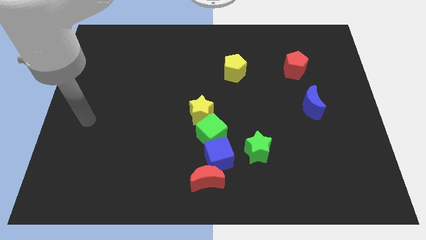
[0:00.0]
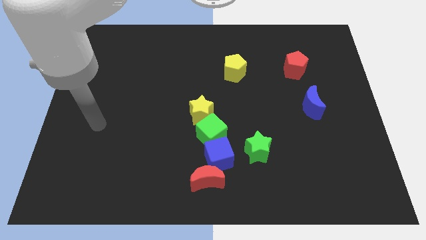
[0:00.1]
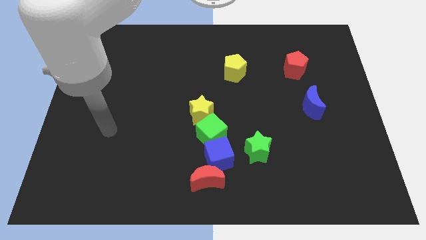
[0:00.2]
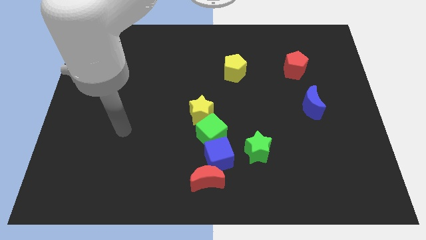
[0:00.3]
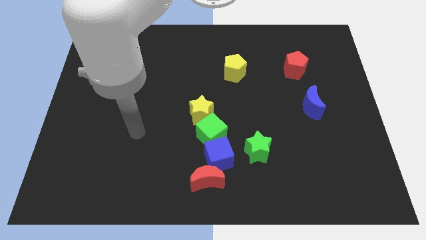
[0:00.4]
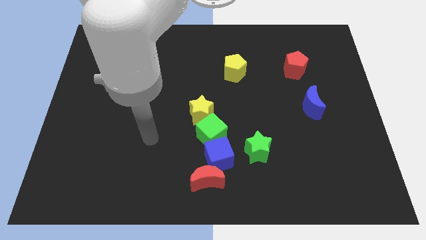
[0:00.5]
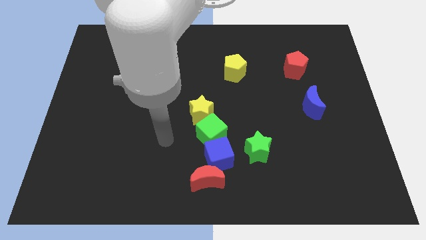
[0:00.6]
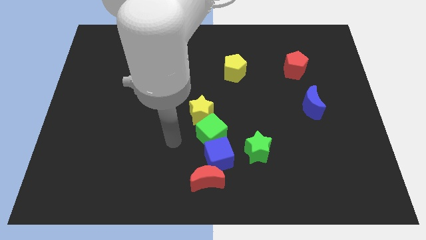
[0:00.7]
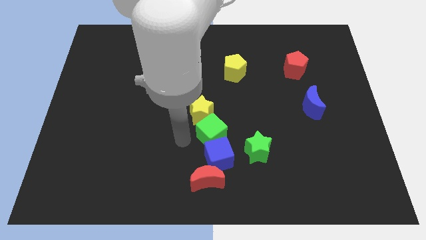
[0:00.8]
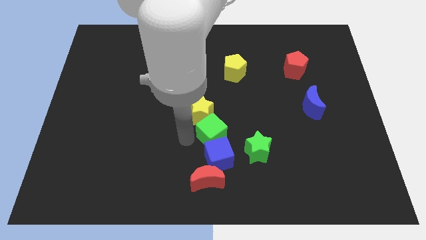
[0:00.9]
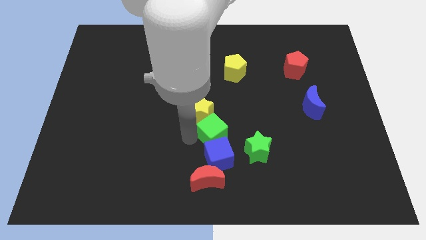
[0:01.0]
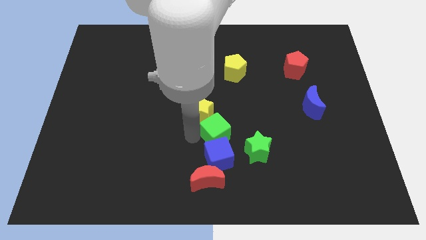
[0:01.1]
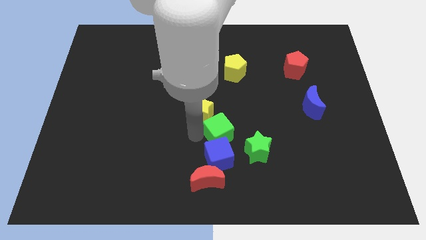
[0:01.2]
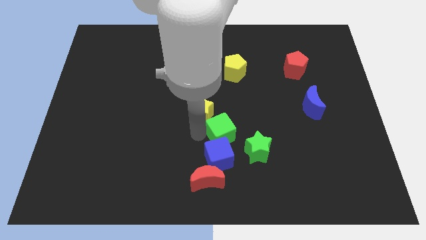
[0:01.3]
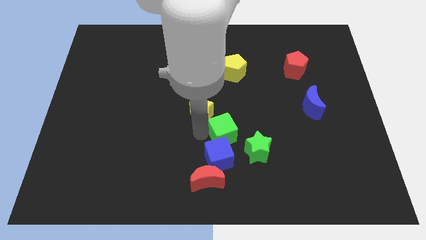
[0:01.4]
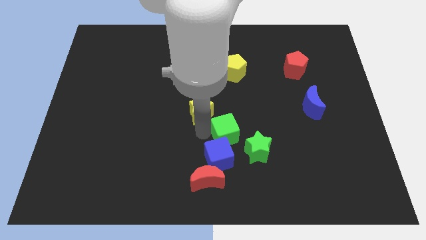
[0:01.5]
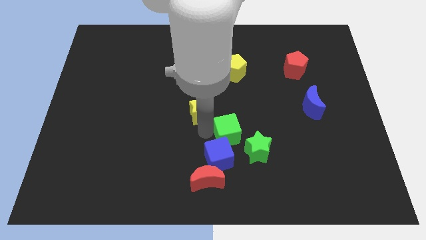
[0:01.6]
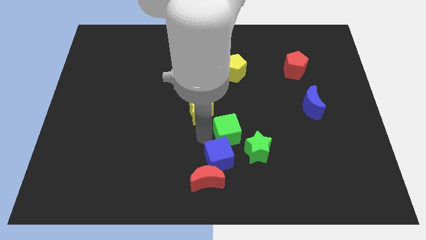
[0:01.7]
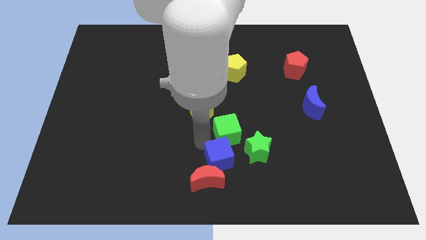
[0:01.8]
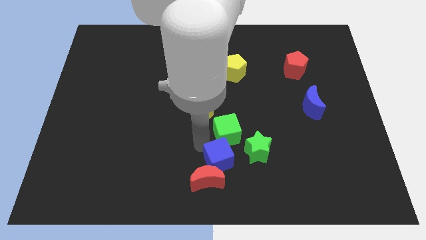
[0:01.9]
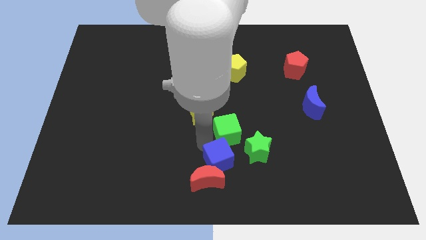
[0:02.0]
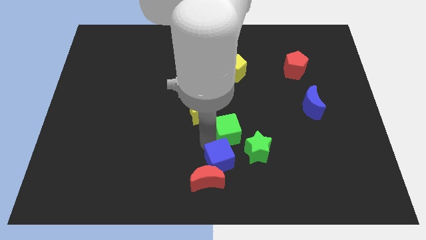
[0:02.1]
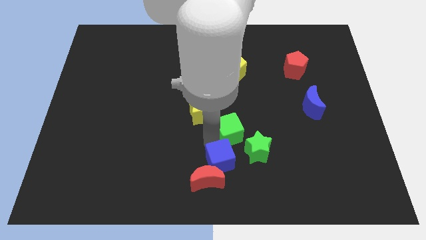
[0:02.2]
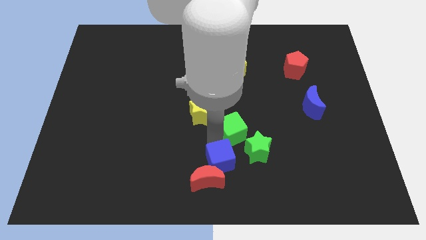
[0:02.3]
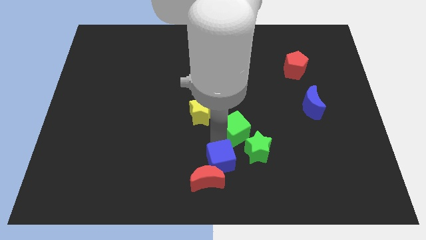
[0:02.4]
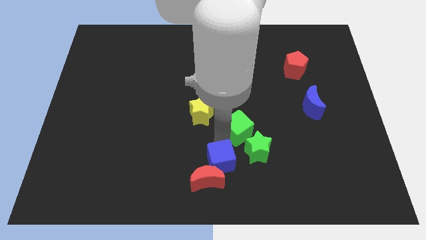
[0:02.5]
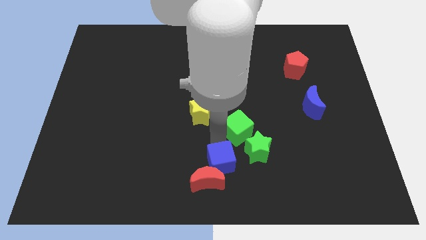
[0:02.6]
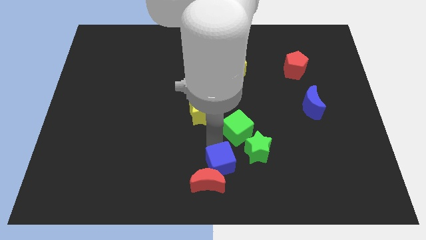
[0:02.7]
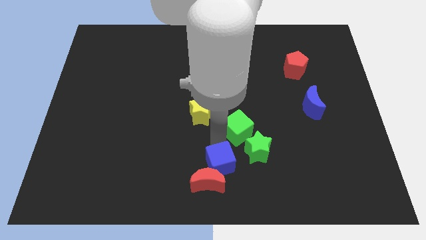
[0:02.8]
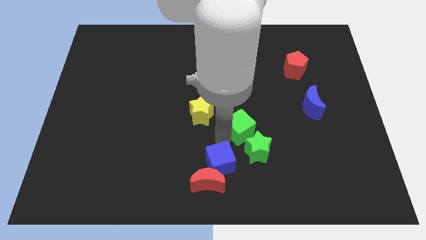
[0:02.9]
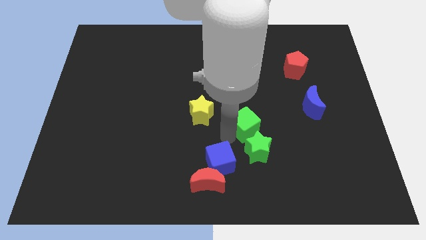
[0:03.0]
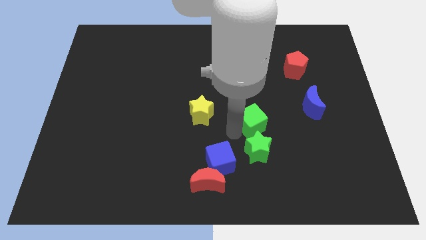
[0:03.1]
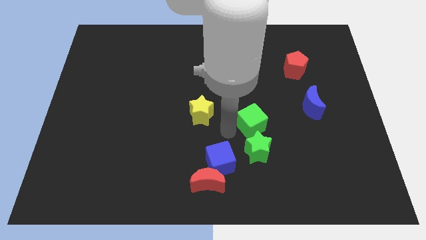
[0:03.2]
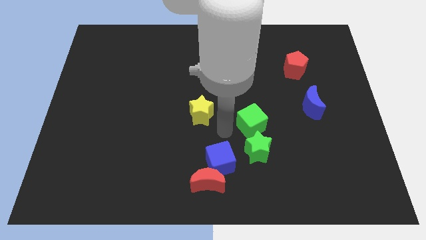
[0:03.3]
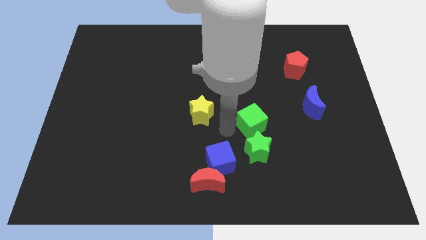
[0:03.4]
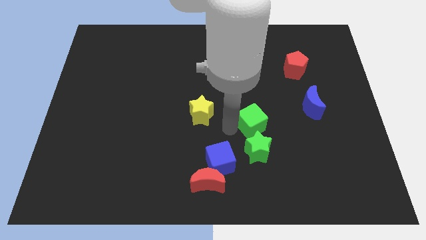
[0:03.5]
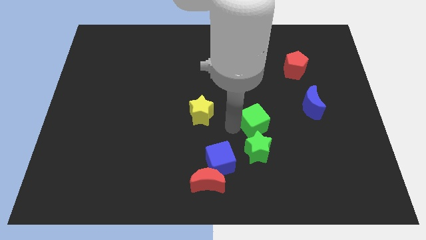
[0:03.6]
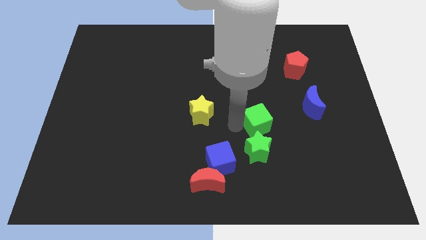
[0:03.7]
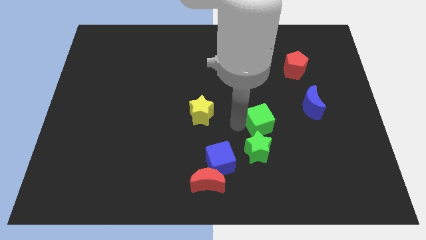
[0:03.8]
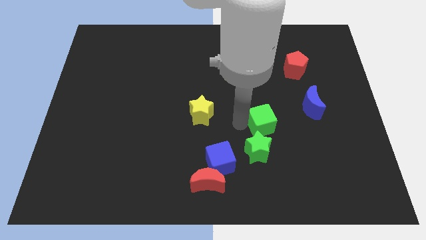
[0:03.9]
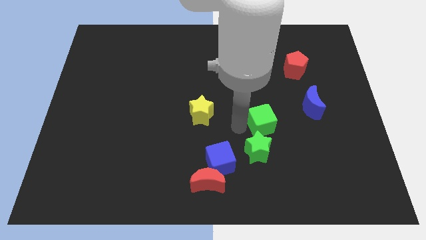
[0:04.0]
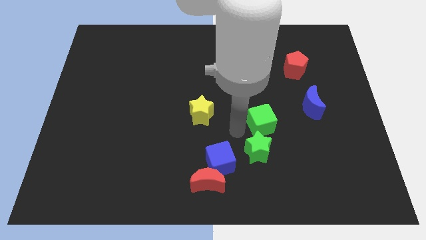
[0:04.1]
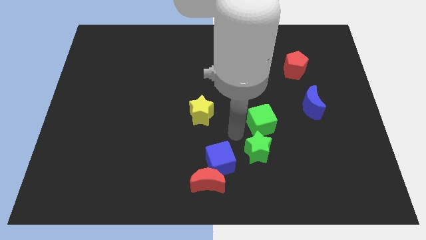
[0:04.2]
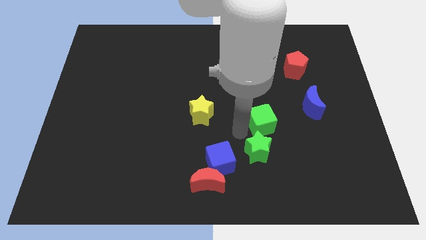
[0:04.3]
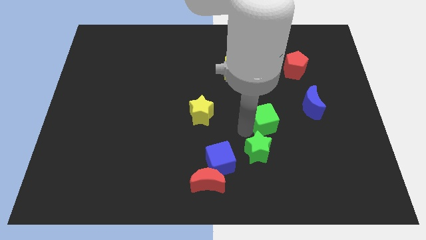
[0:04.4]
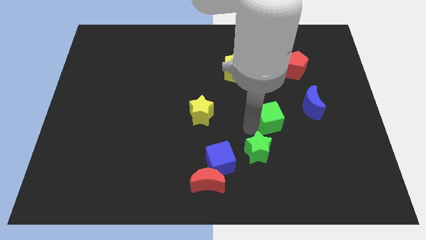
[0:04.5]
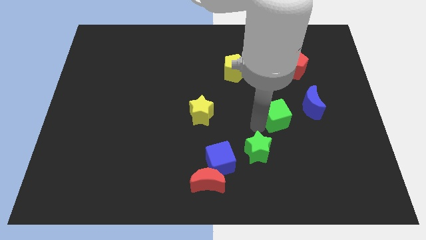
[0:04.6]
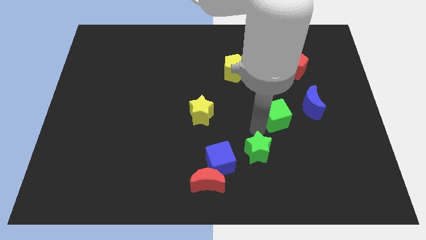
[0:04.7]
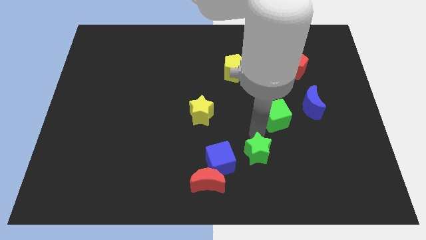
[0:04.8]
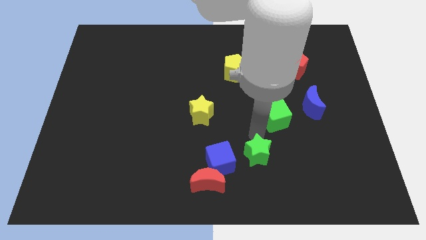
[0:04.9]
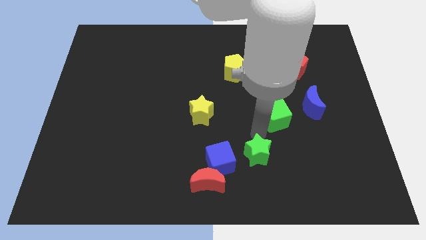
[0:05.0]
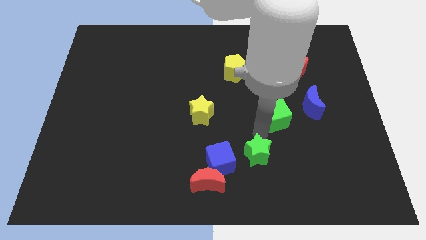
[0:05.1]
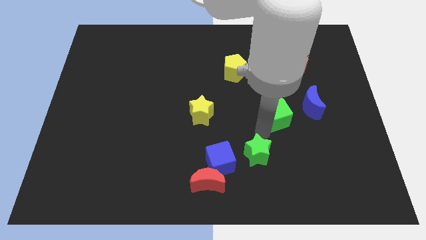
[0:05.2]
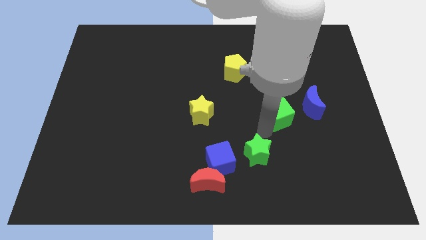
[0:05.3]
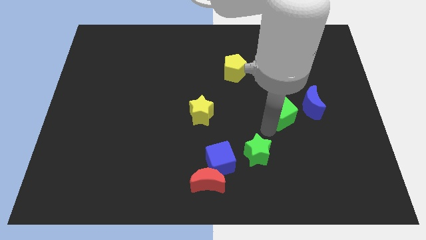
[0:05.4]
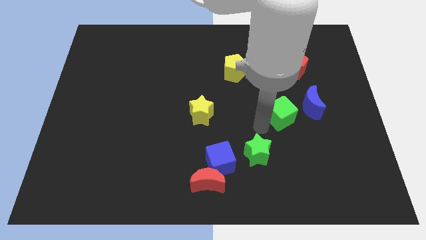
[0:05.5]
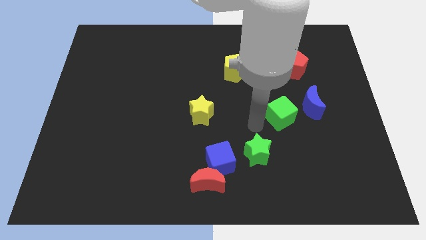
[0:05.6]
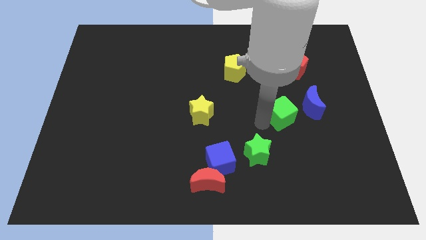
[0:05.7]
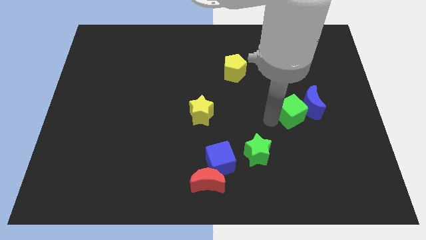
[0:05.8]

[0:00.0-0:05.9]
move the green cube next to the blue moon

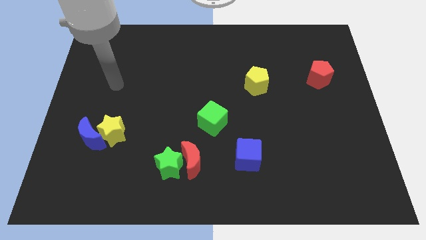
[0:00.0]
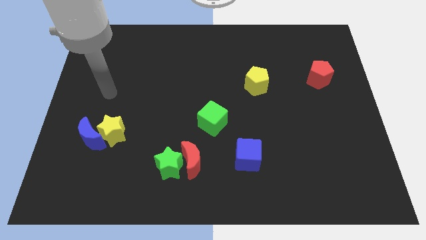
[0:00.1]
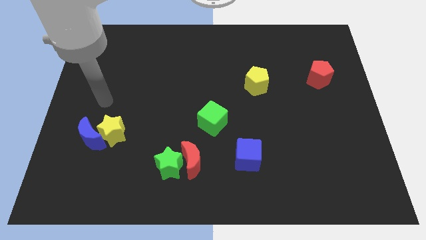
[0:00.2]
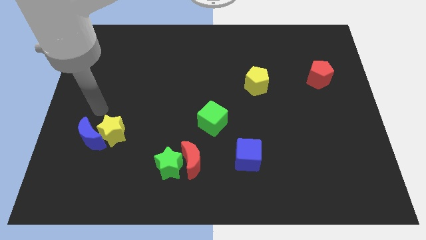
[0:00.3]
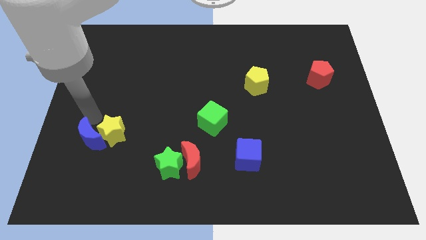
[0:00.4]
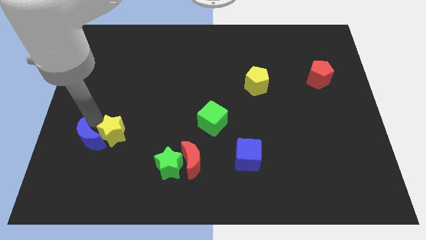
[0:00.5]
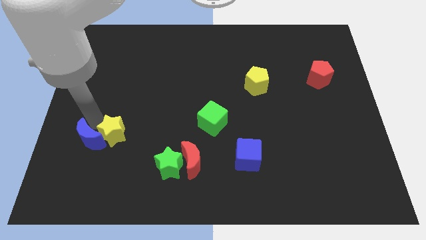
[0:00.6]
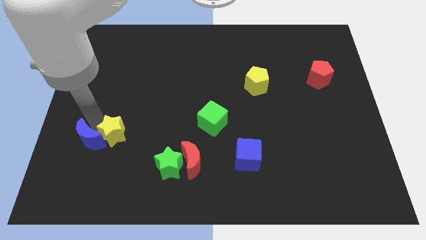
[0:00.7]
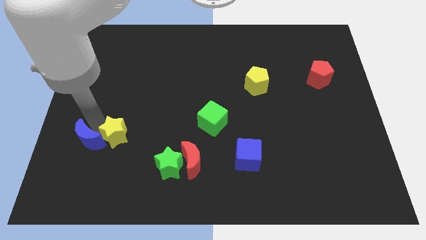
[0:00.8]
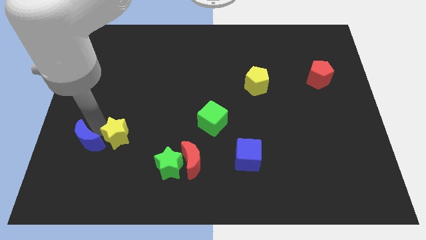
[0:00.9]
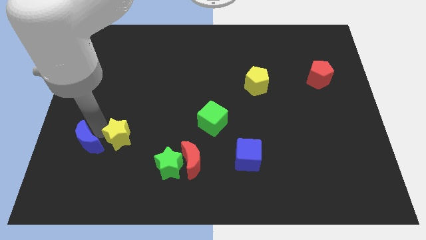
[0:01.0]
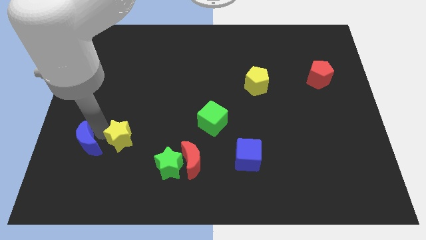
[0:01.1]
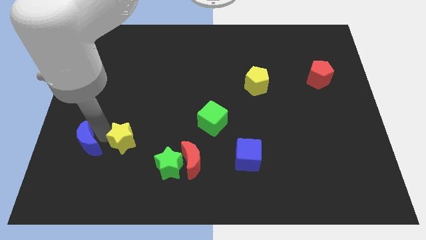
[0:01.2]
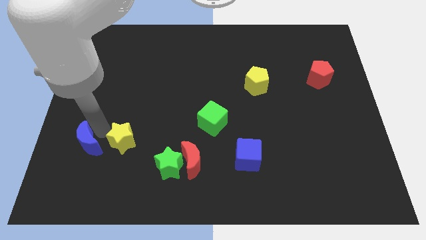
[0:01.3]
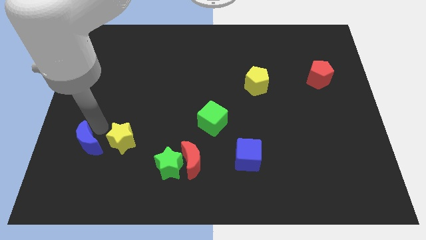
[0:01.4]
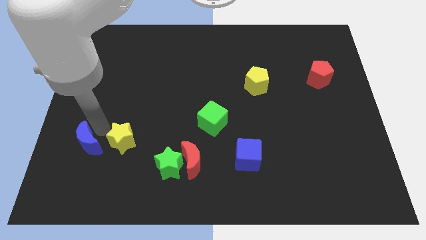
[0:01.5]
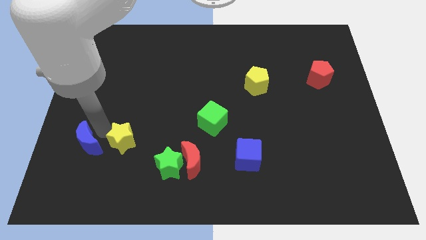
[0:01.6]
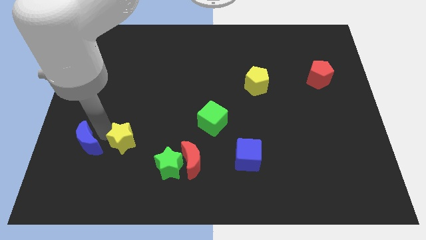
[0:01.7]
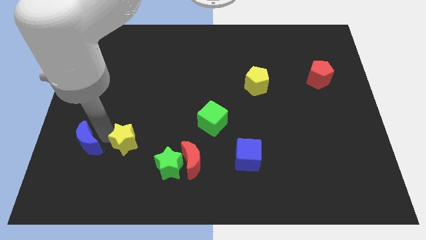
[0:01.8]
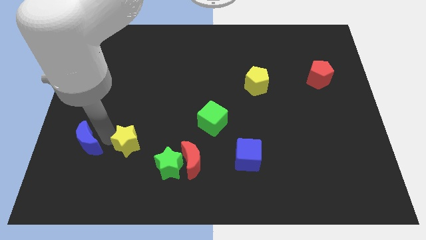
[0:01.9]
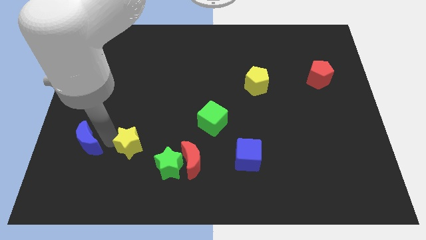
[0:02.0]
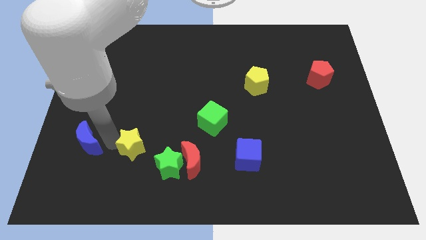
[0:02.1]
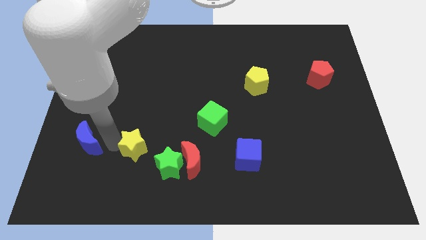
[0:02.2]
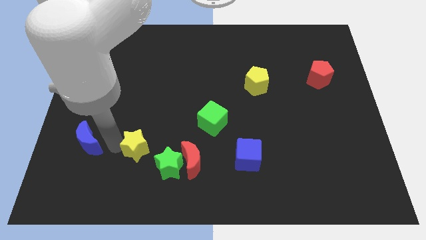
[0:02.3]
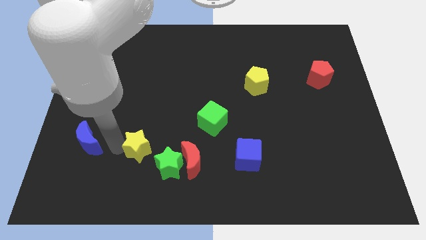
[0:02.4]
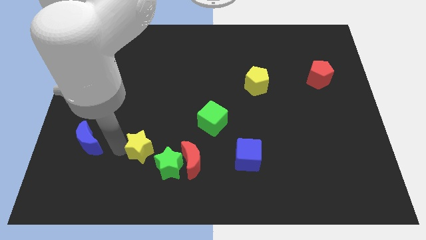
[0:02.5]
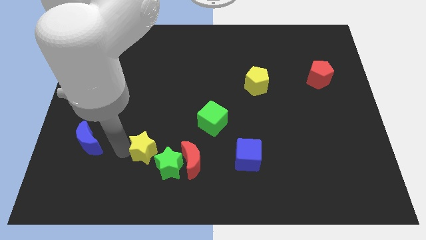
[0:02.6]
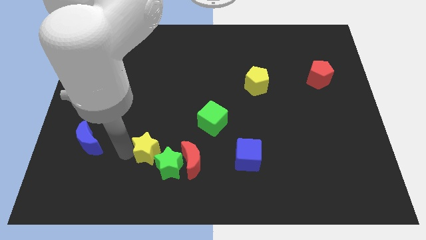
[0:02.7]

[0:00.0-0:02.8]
slide the yellow star to the green star
